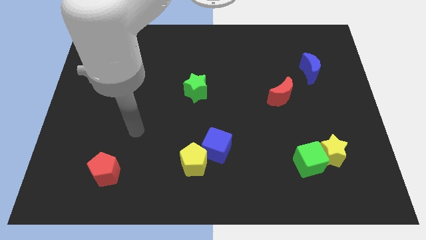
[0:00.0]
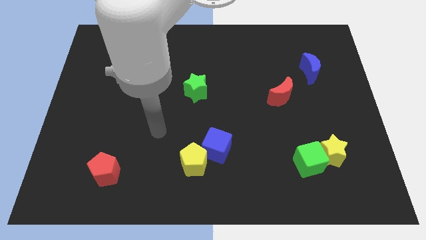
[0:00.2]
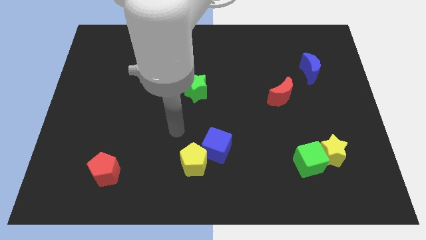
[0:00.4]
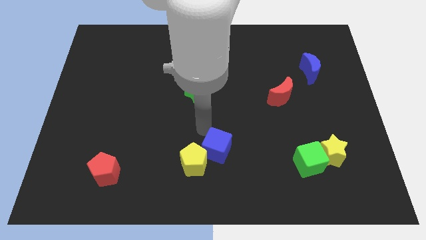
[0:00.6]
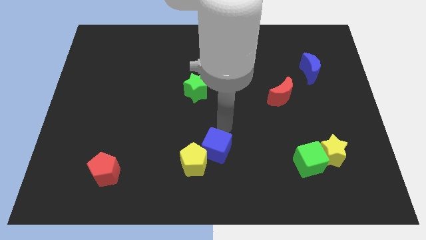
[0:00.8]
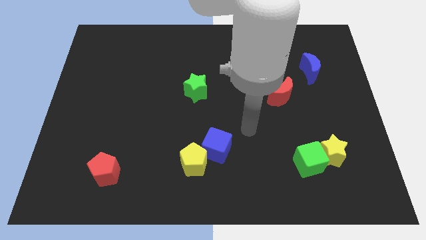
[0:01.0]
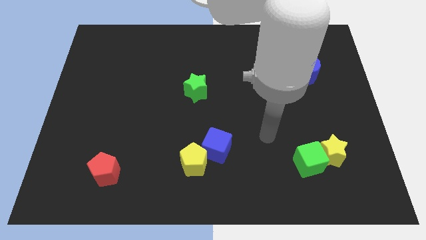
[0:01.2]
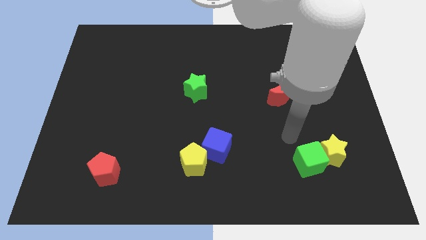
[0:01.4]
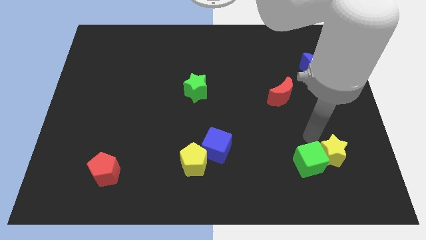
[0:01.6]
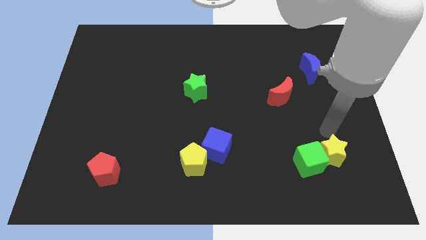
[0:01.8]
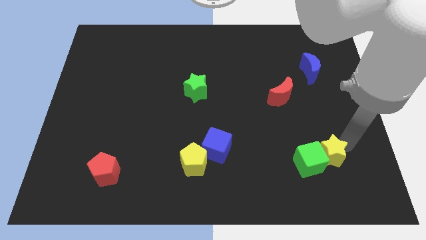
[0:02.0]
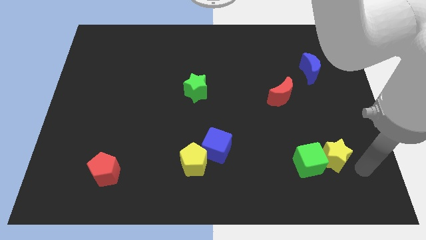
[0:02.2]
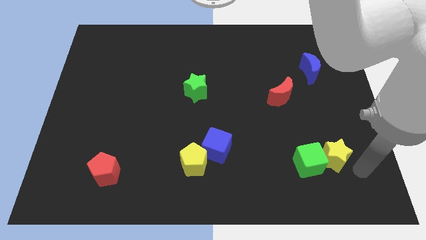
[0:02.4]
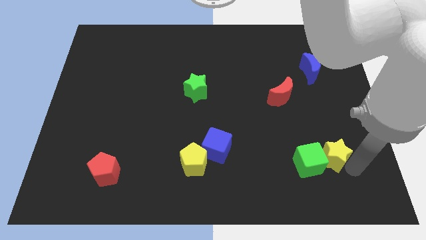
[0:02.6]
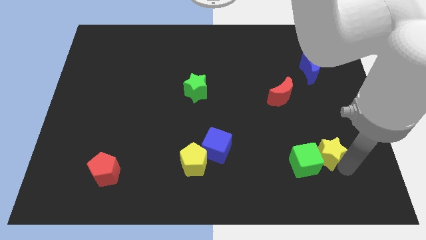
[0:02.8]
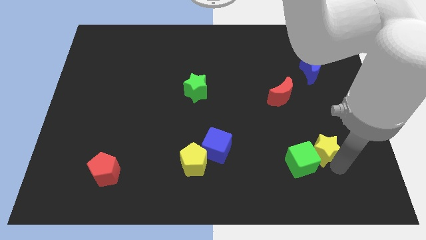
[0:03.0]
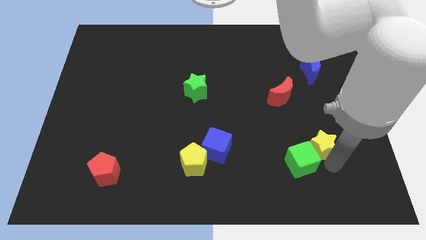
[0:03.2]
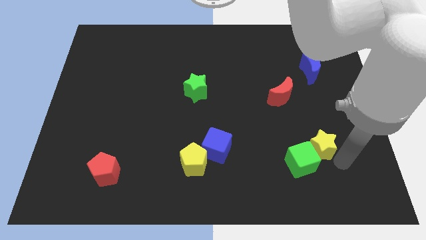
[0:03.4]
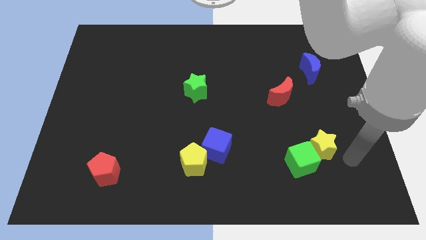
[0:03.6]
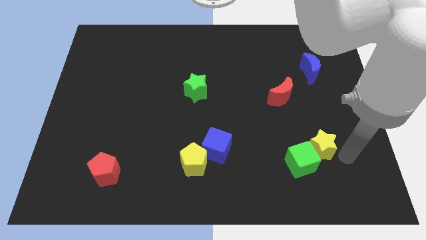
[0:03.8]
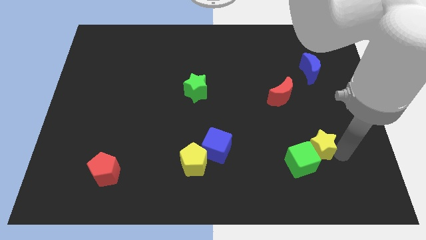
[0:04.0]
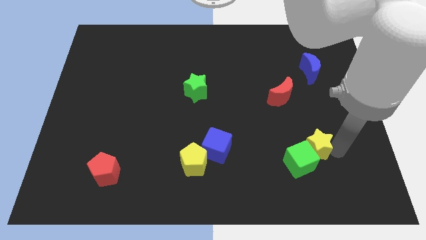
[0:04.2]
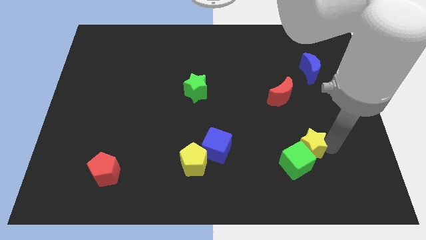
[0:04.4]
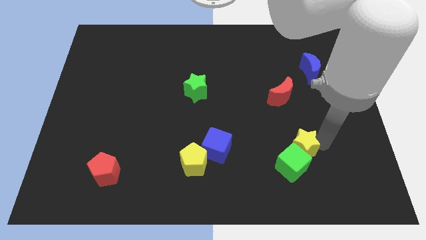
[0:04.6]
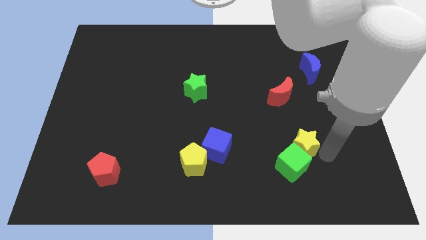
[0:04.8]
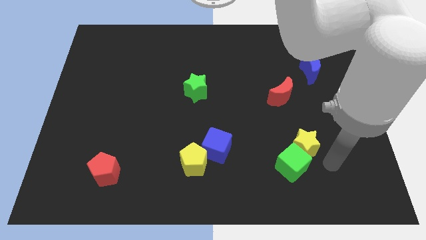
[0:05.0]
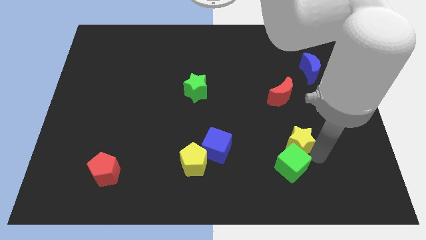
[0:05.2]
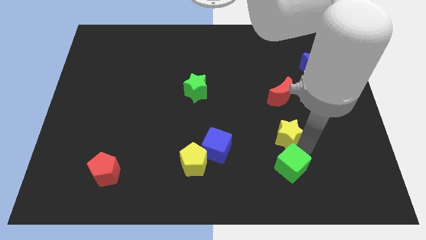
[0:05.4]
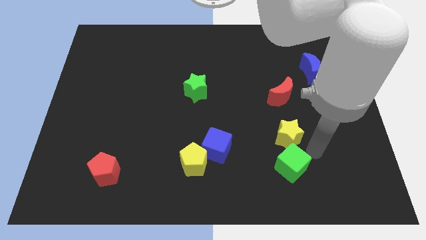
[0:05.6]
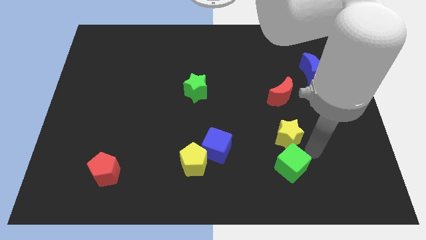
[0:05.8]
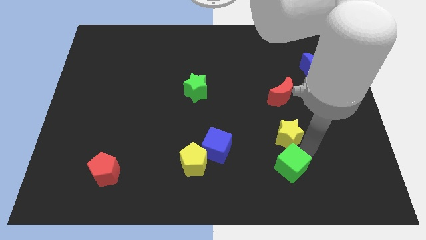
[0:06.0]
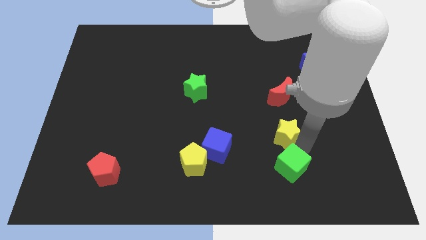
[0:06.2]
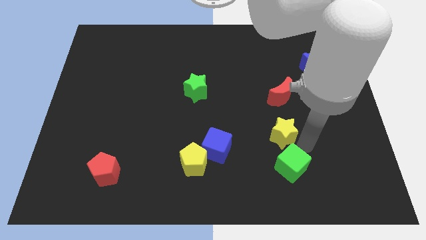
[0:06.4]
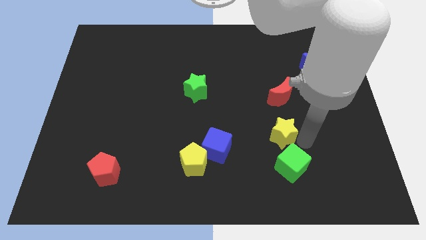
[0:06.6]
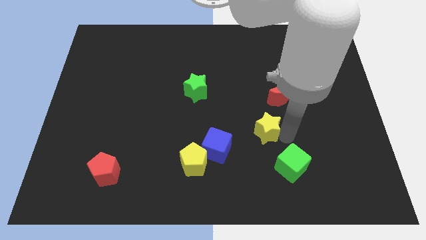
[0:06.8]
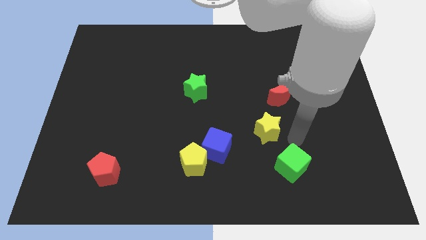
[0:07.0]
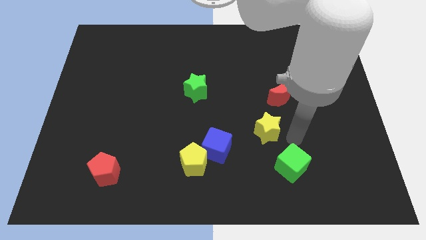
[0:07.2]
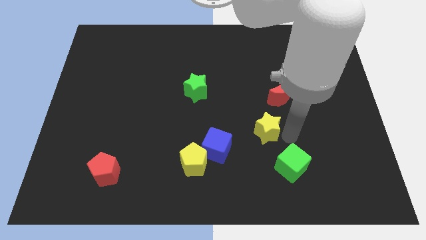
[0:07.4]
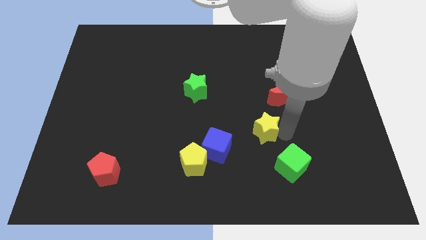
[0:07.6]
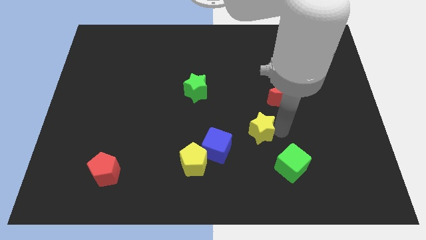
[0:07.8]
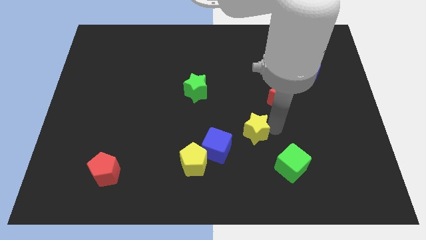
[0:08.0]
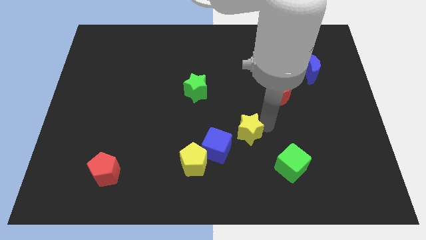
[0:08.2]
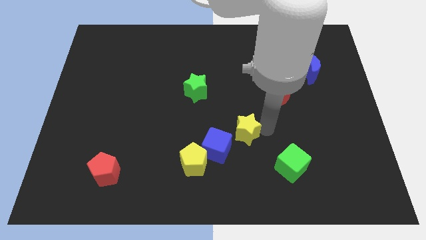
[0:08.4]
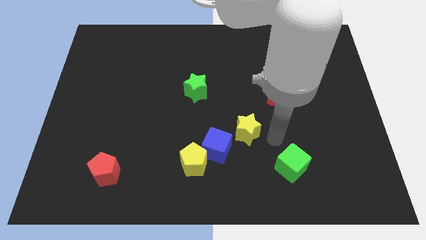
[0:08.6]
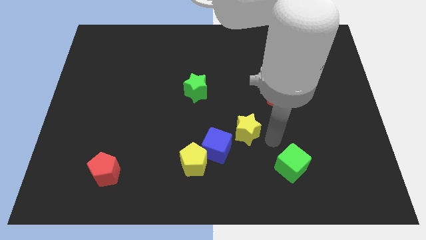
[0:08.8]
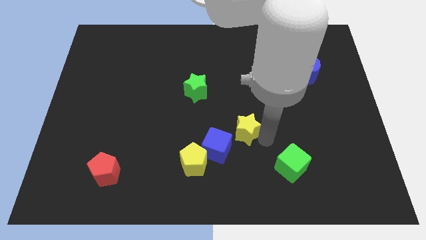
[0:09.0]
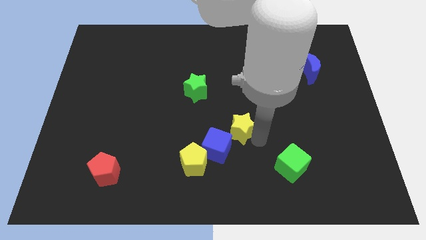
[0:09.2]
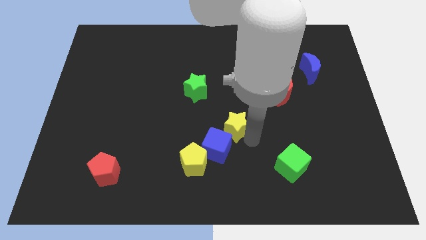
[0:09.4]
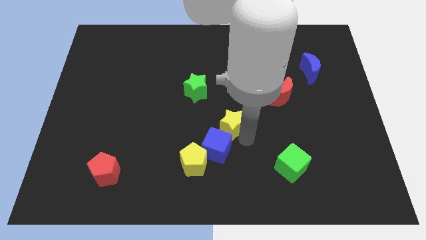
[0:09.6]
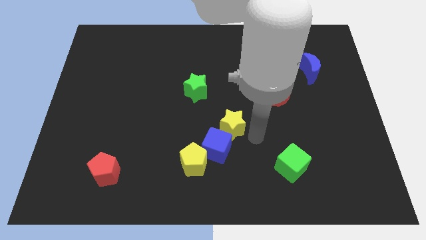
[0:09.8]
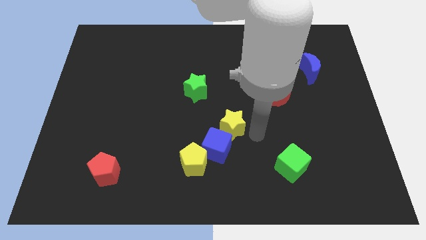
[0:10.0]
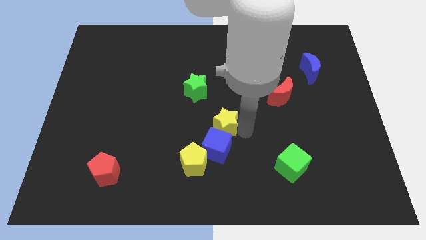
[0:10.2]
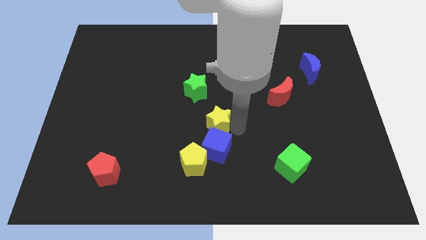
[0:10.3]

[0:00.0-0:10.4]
move the yellow star diagonally up and to the left of the blue cube

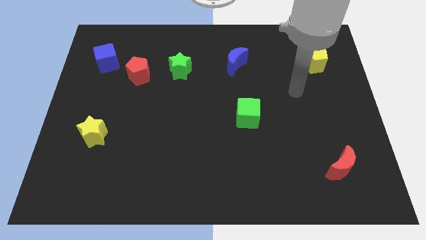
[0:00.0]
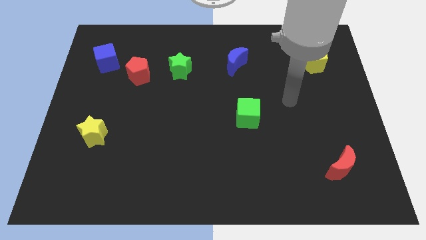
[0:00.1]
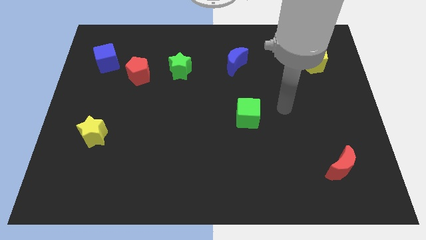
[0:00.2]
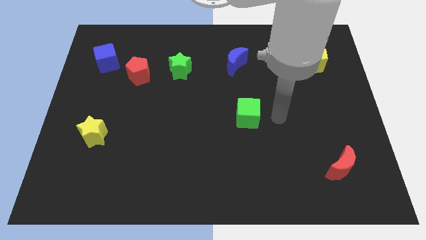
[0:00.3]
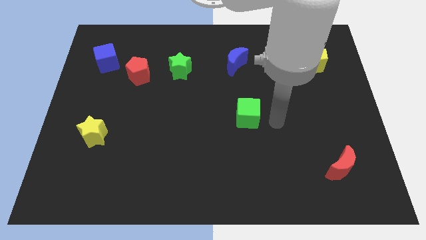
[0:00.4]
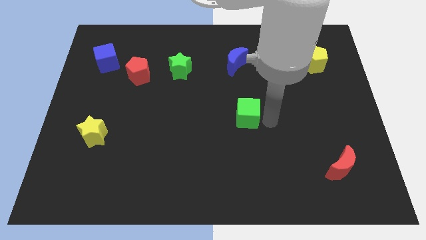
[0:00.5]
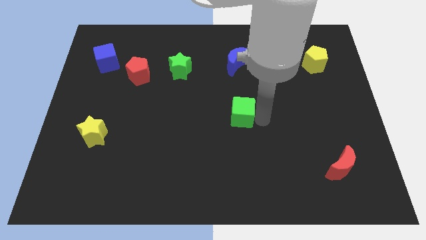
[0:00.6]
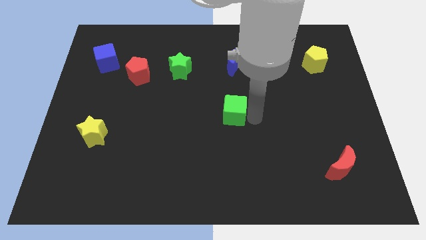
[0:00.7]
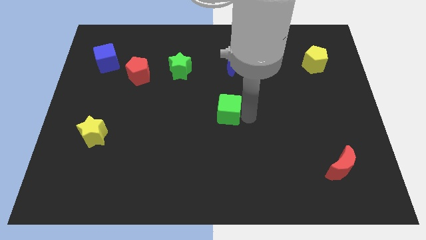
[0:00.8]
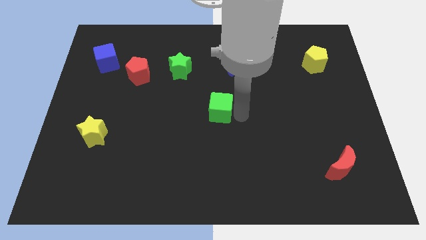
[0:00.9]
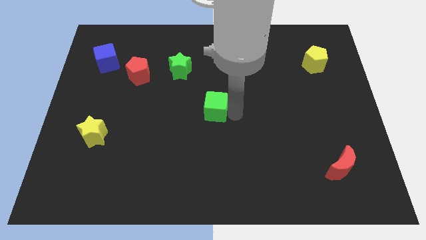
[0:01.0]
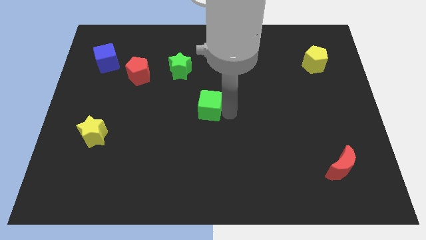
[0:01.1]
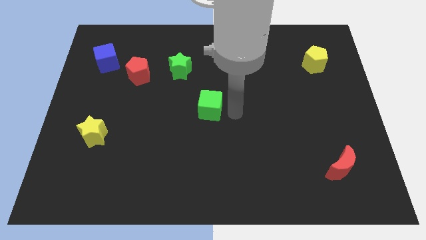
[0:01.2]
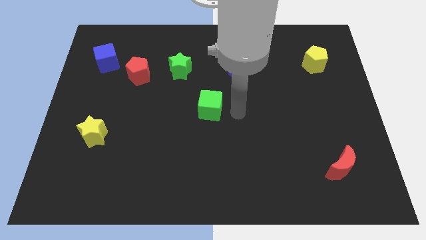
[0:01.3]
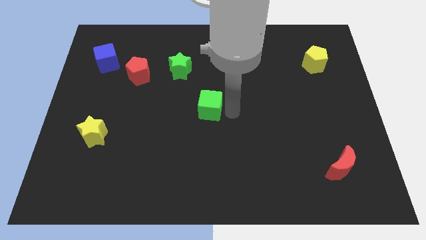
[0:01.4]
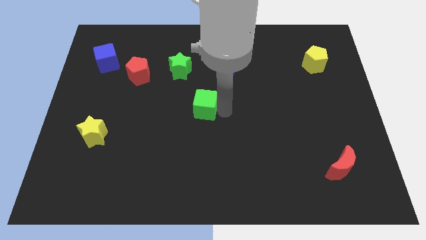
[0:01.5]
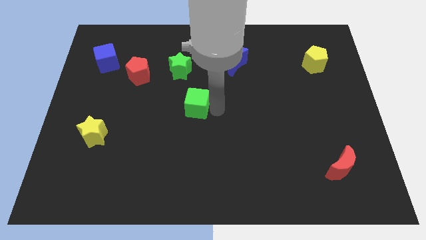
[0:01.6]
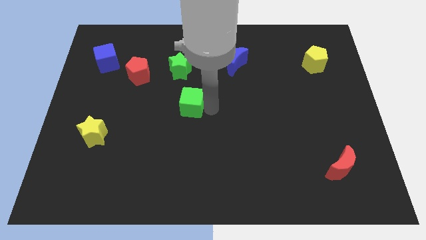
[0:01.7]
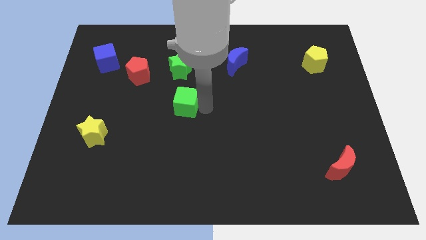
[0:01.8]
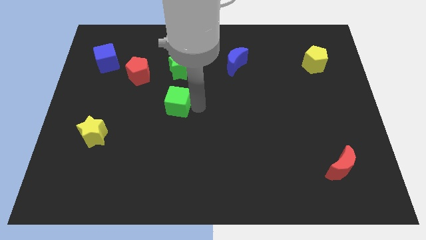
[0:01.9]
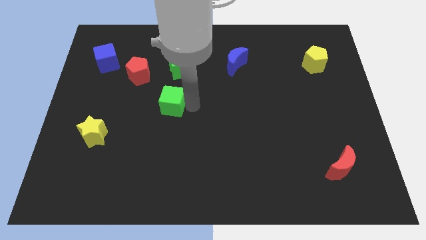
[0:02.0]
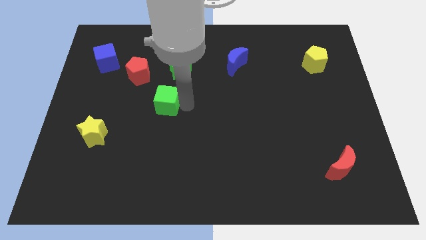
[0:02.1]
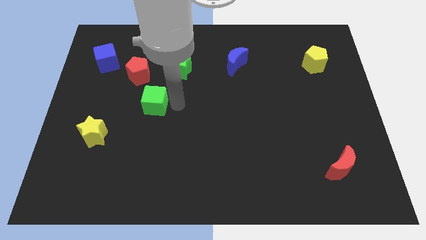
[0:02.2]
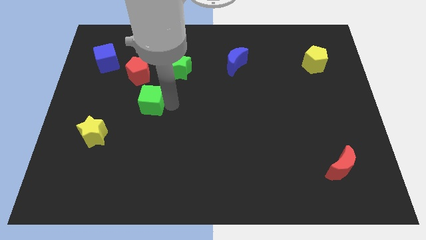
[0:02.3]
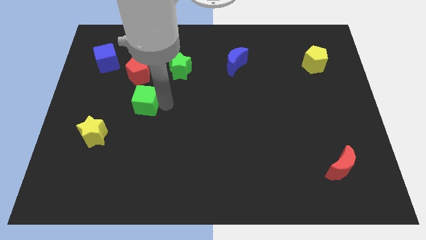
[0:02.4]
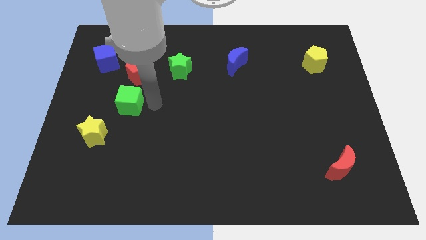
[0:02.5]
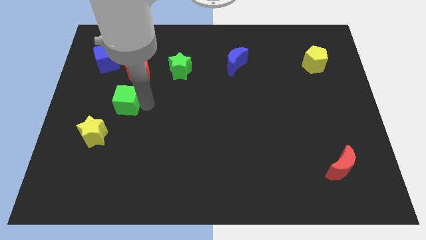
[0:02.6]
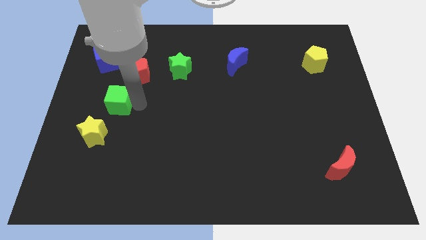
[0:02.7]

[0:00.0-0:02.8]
push the green cube to the top side of the yellow star
